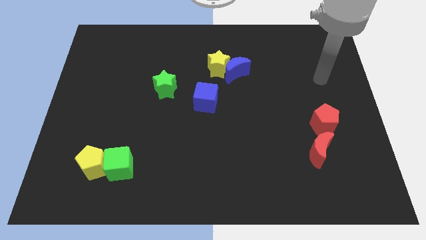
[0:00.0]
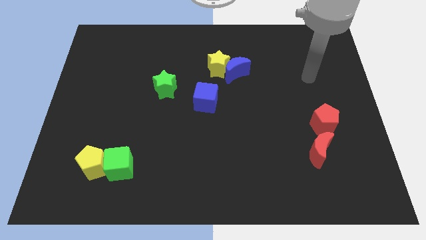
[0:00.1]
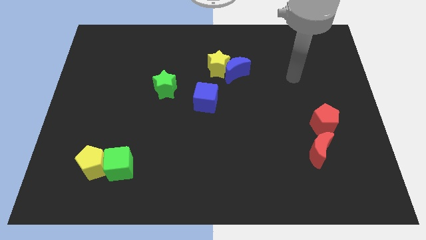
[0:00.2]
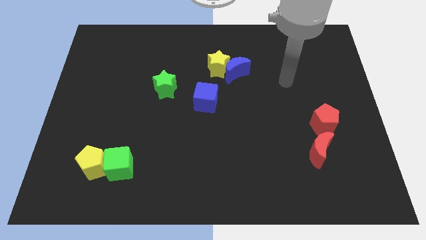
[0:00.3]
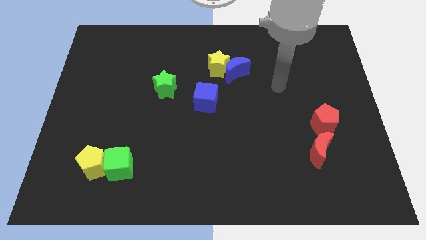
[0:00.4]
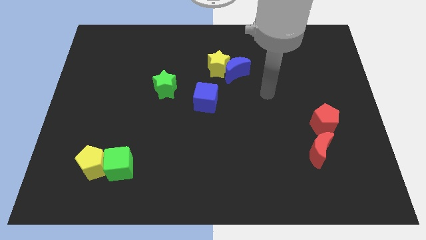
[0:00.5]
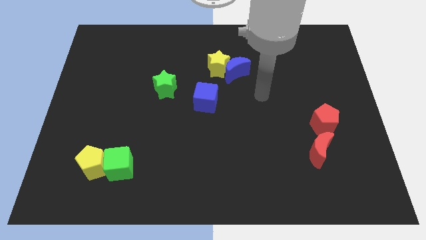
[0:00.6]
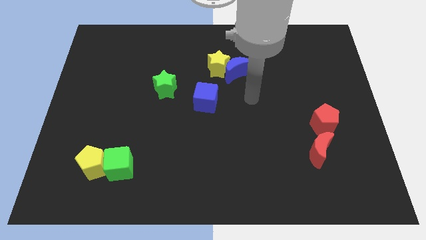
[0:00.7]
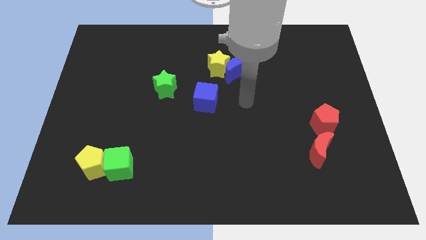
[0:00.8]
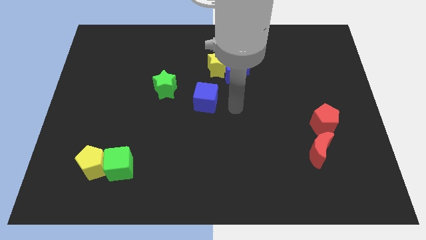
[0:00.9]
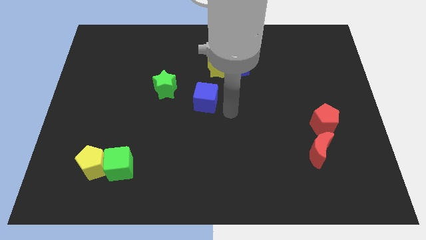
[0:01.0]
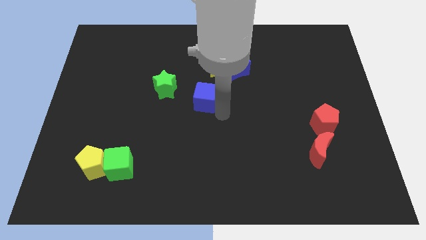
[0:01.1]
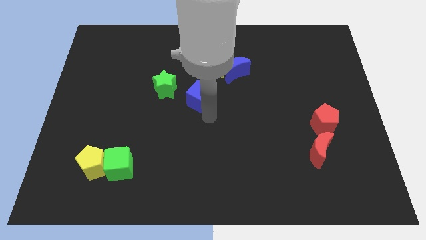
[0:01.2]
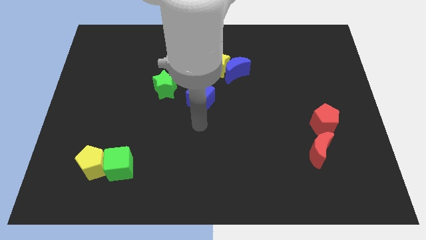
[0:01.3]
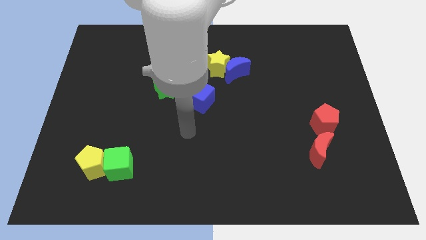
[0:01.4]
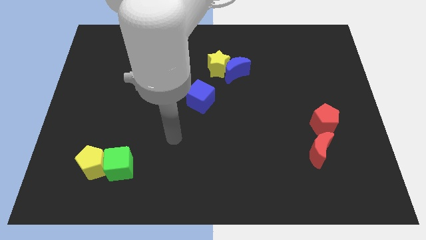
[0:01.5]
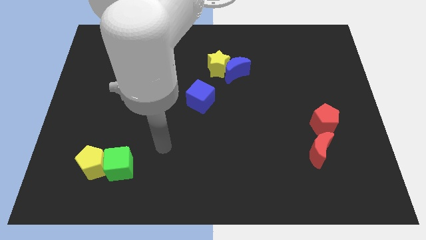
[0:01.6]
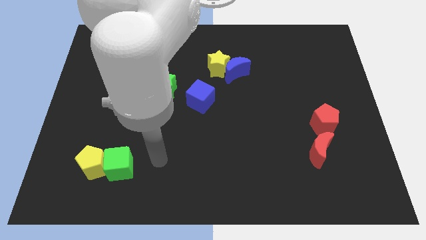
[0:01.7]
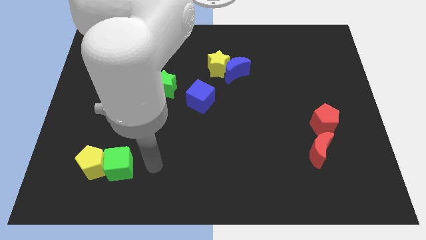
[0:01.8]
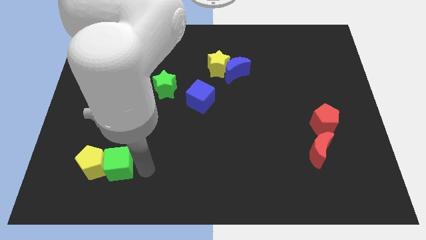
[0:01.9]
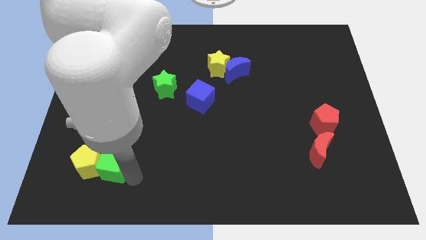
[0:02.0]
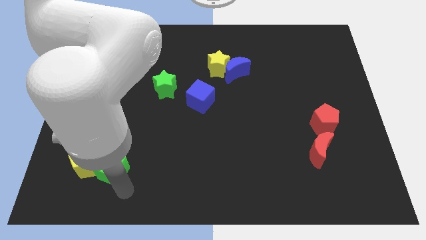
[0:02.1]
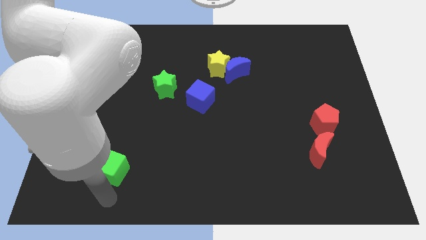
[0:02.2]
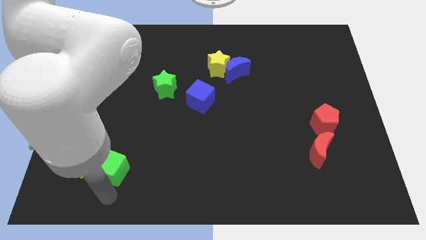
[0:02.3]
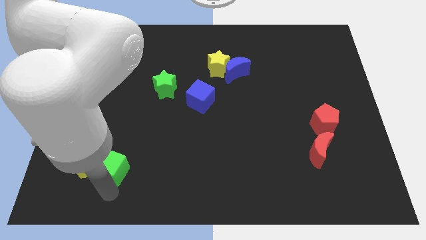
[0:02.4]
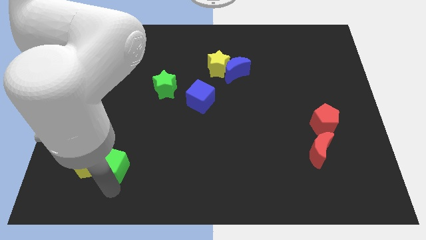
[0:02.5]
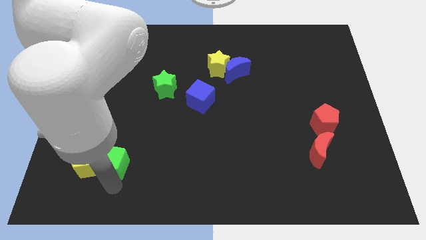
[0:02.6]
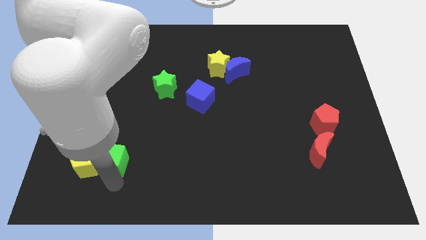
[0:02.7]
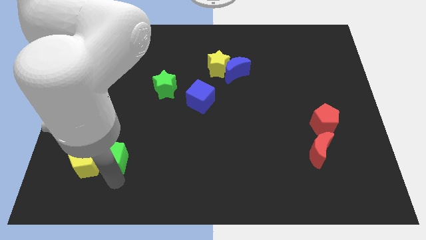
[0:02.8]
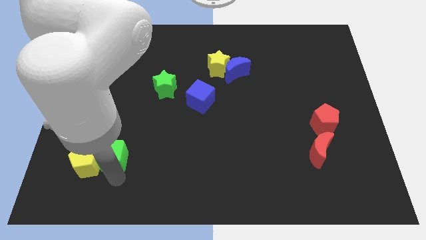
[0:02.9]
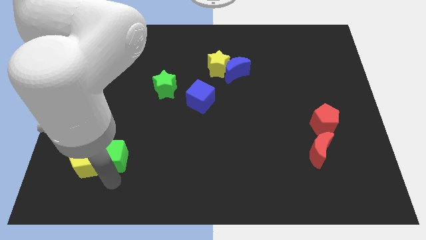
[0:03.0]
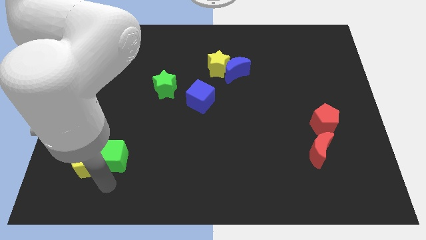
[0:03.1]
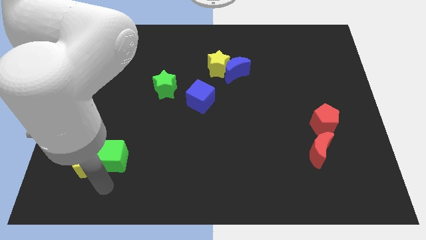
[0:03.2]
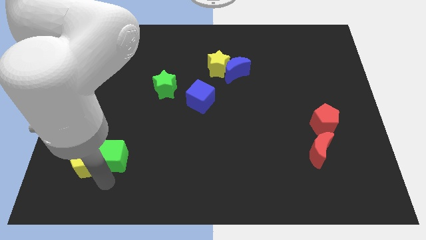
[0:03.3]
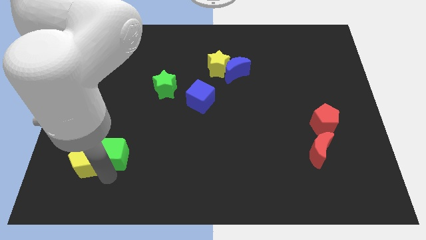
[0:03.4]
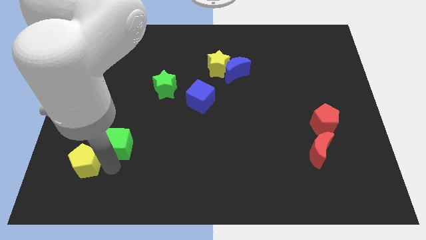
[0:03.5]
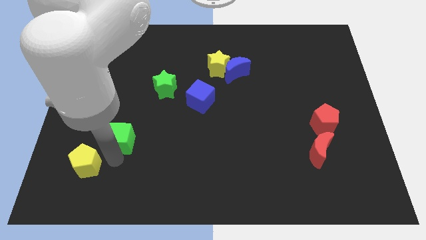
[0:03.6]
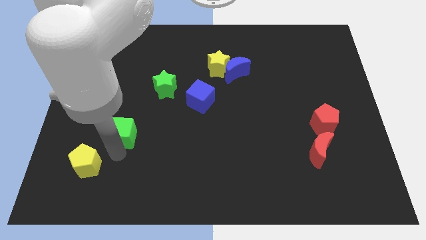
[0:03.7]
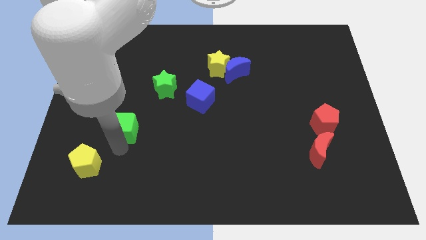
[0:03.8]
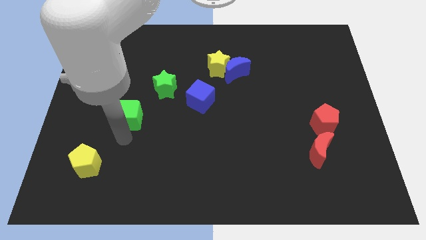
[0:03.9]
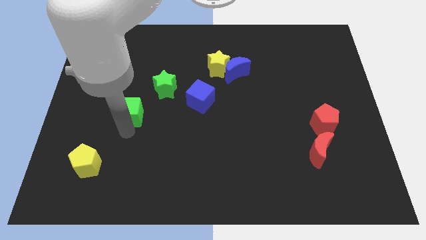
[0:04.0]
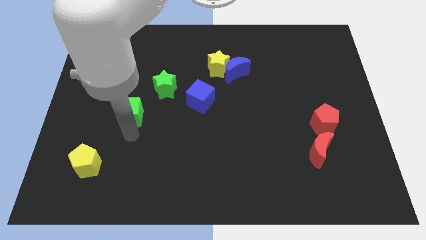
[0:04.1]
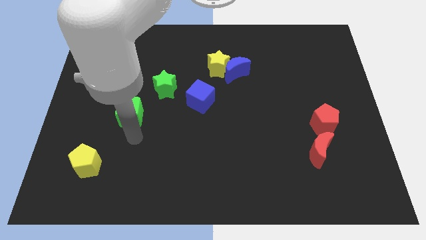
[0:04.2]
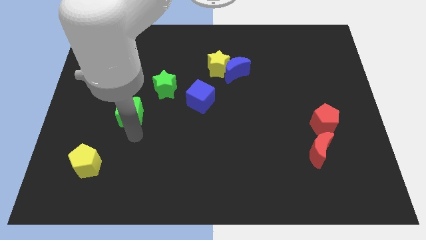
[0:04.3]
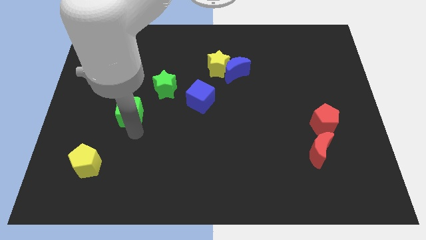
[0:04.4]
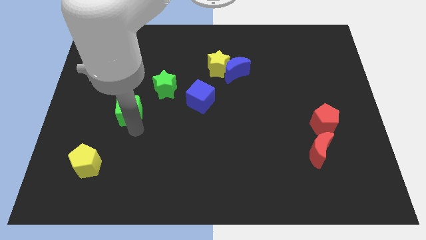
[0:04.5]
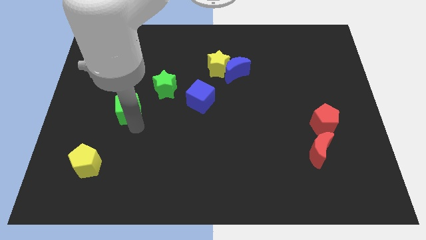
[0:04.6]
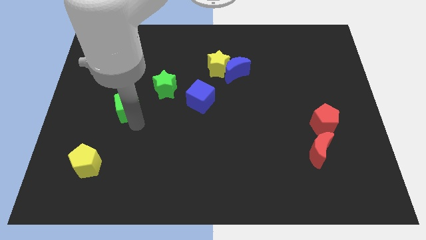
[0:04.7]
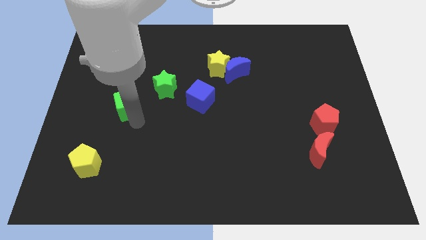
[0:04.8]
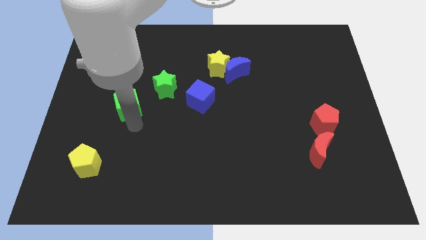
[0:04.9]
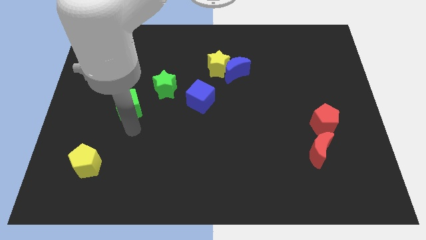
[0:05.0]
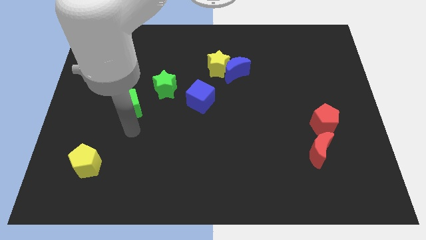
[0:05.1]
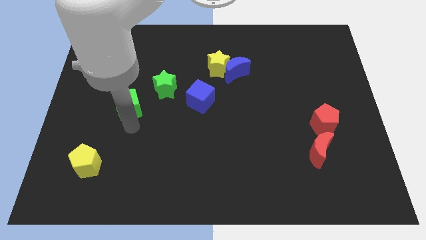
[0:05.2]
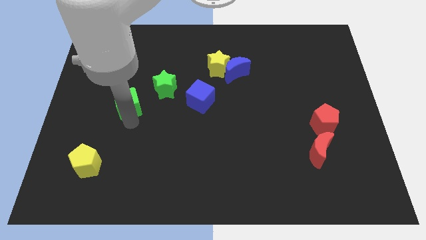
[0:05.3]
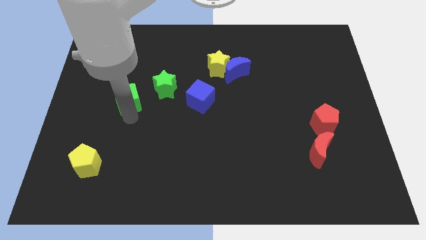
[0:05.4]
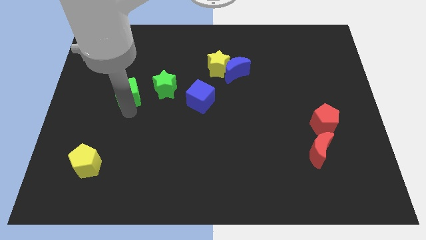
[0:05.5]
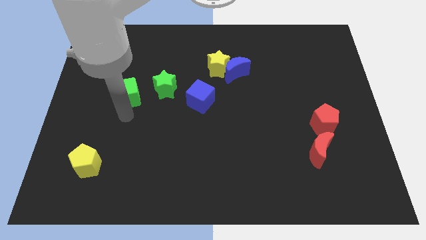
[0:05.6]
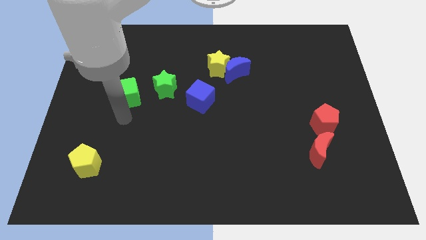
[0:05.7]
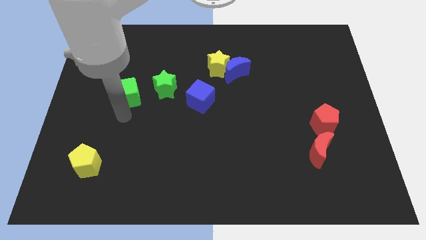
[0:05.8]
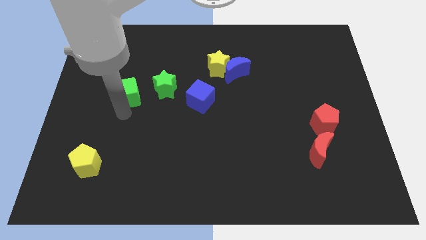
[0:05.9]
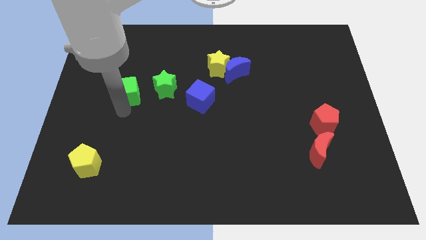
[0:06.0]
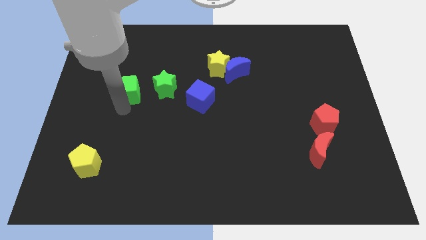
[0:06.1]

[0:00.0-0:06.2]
push the green cube up

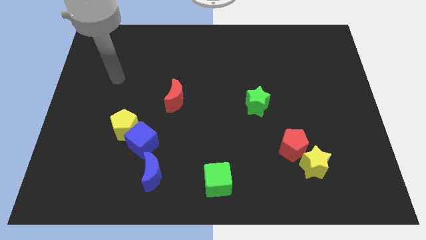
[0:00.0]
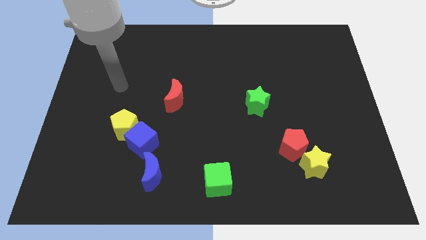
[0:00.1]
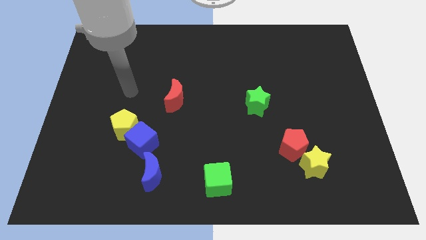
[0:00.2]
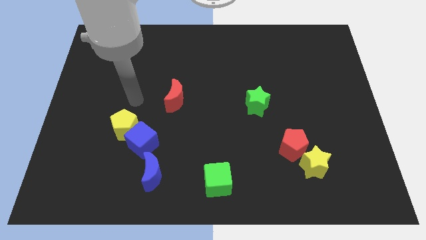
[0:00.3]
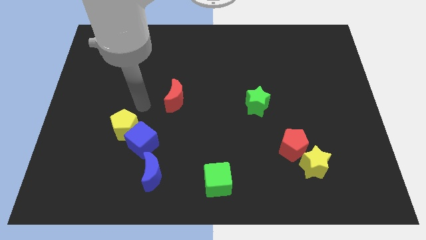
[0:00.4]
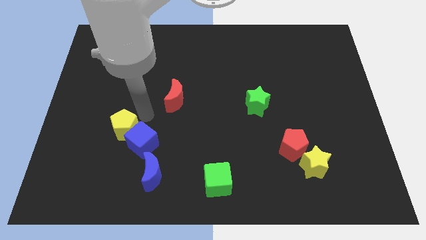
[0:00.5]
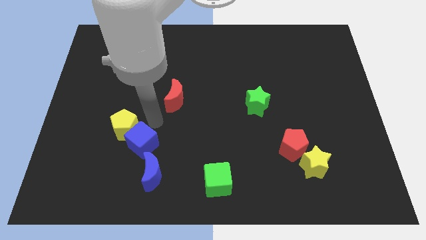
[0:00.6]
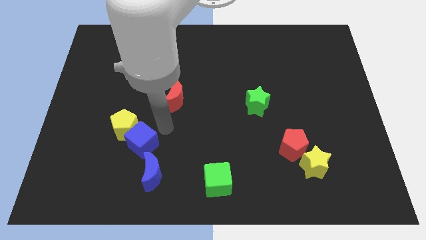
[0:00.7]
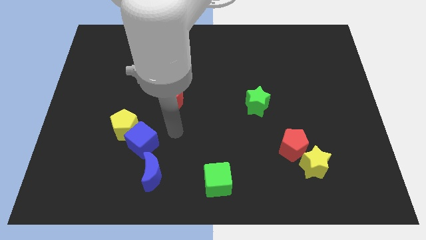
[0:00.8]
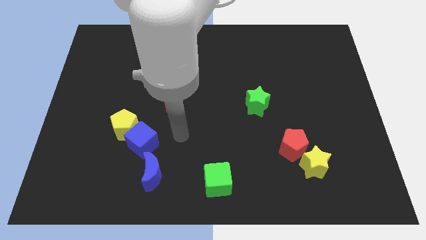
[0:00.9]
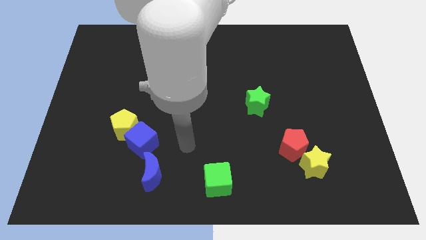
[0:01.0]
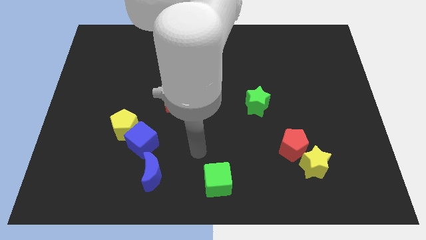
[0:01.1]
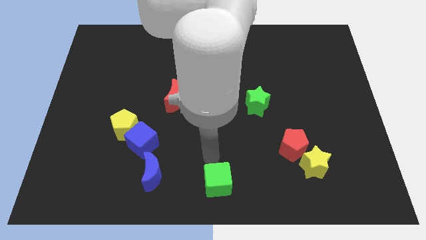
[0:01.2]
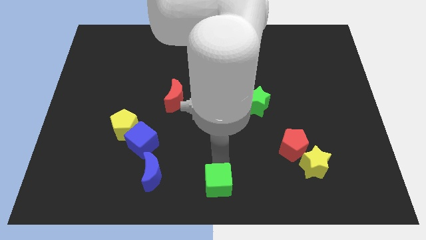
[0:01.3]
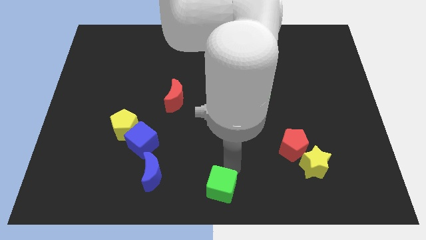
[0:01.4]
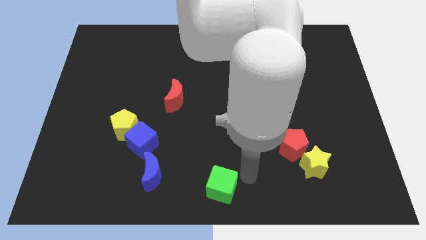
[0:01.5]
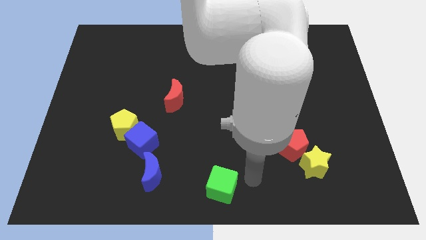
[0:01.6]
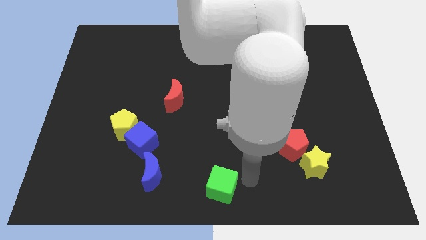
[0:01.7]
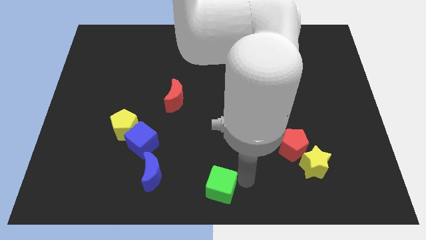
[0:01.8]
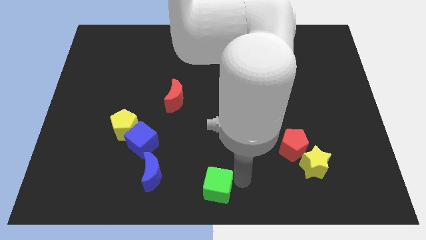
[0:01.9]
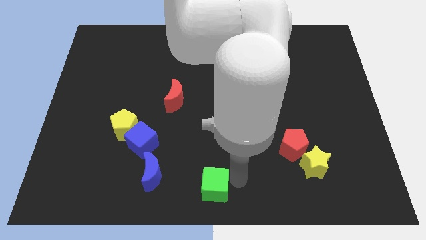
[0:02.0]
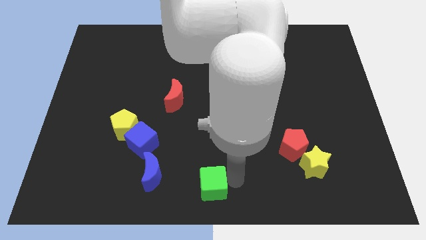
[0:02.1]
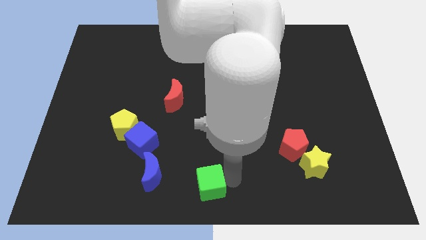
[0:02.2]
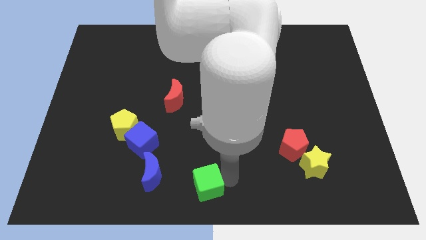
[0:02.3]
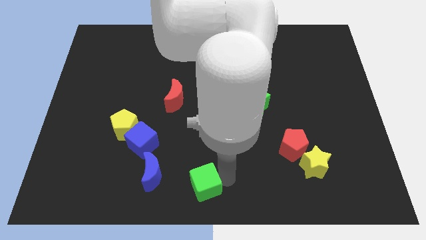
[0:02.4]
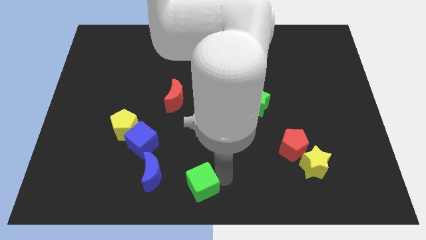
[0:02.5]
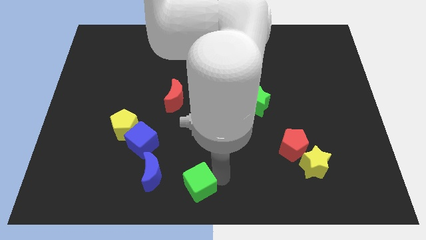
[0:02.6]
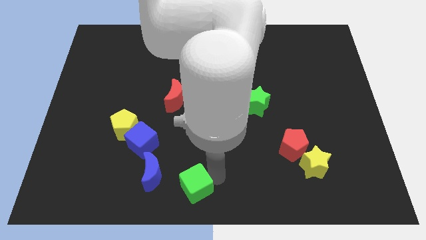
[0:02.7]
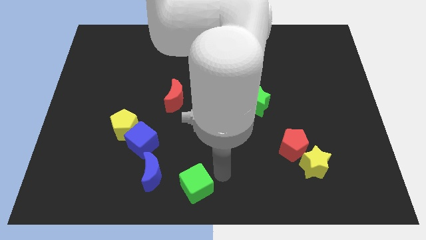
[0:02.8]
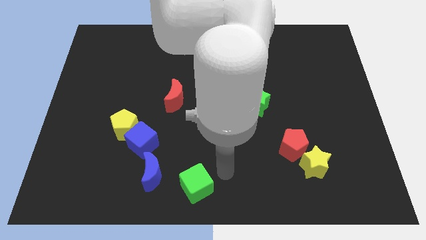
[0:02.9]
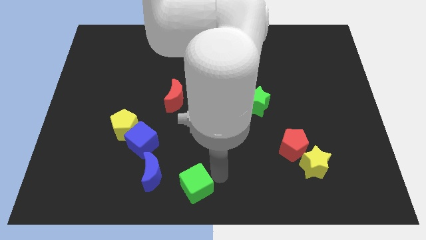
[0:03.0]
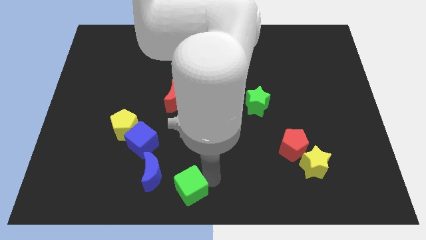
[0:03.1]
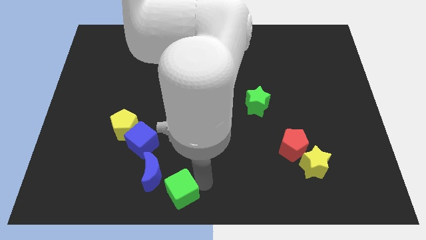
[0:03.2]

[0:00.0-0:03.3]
move the green cube a little left
